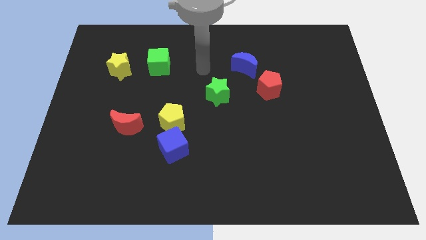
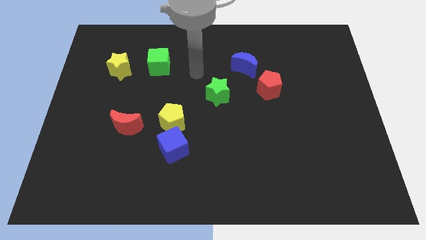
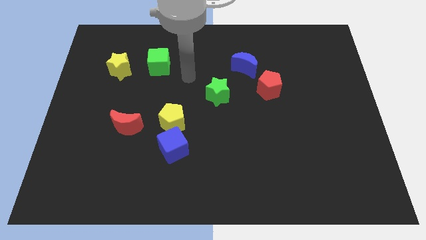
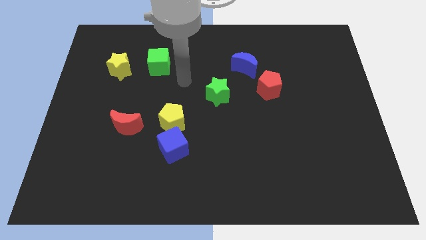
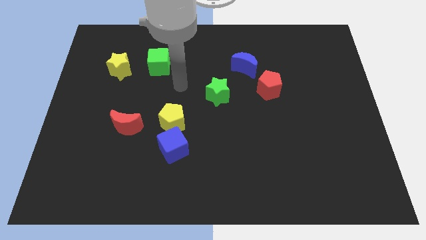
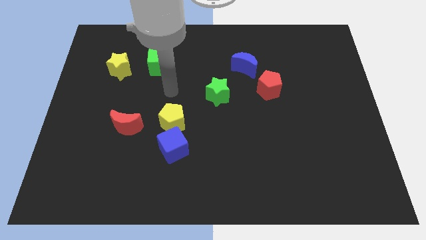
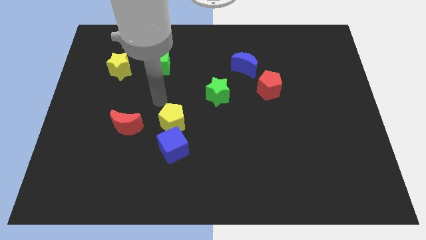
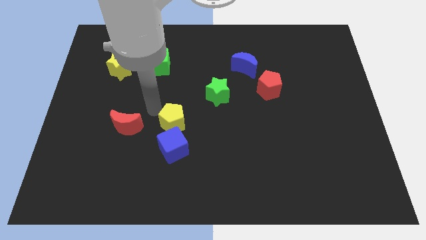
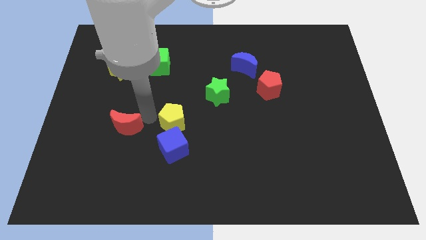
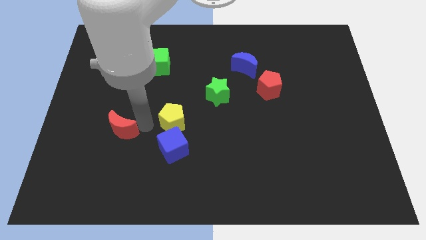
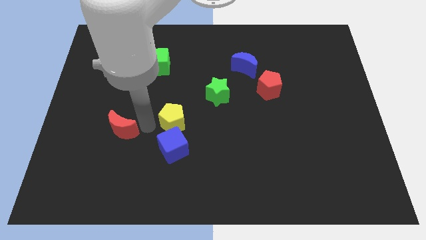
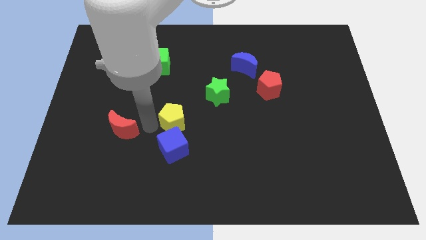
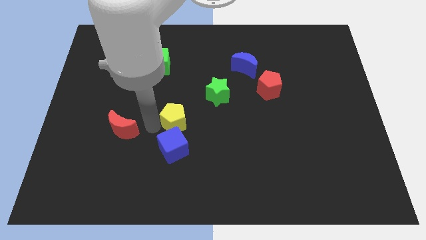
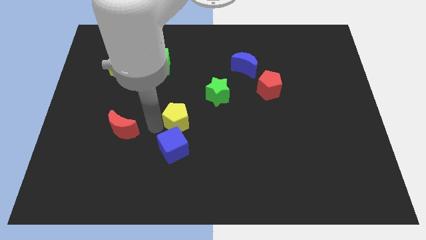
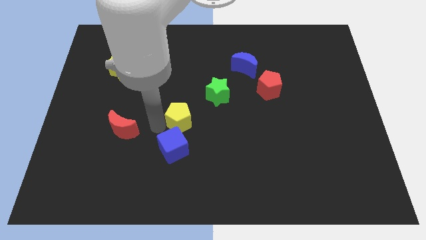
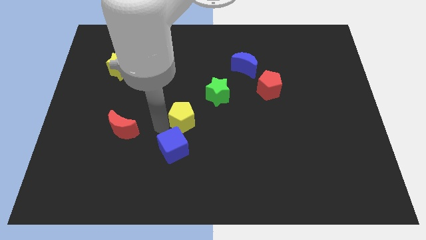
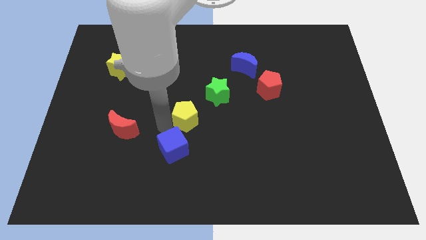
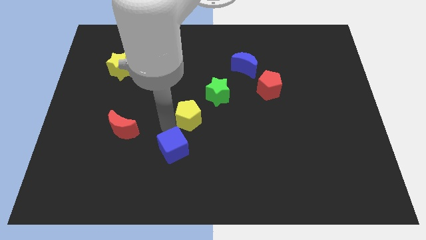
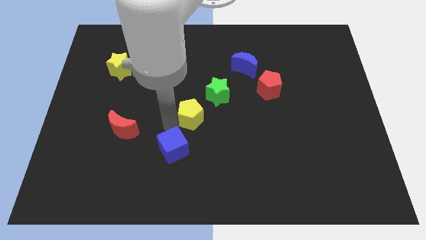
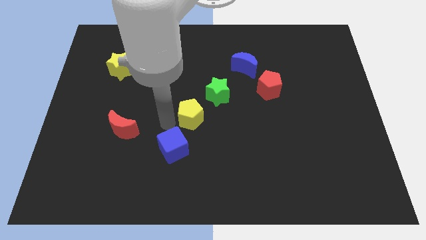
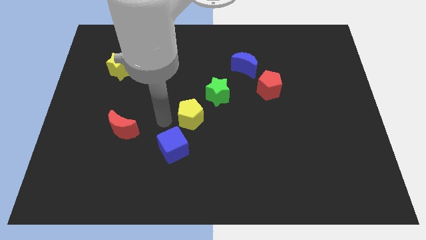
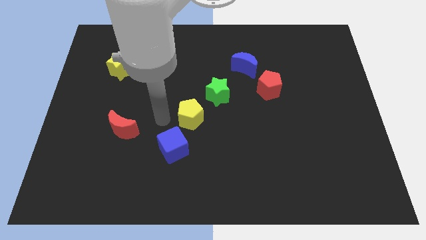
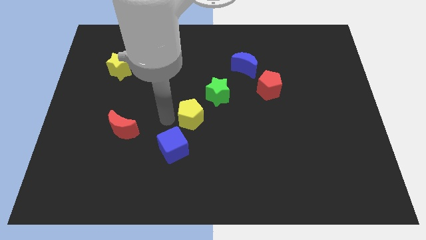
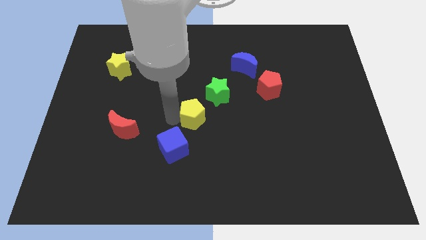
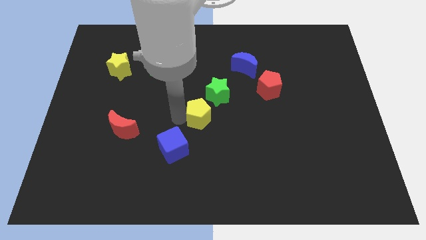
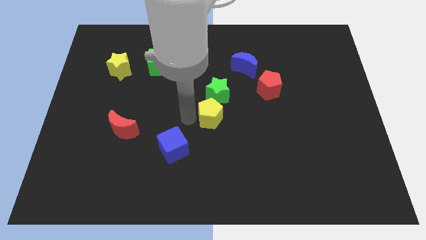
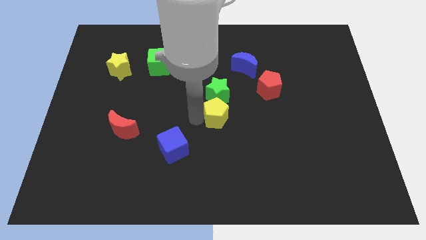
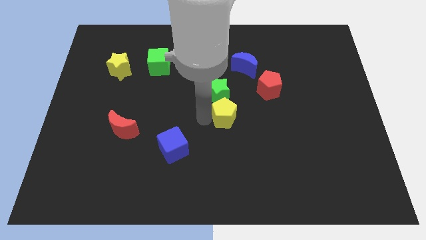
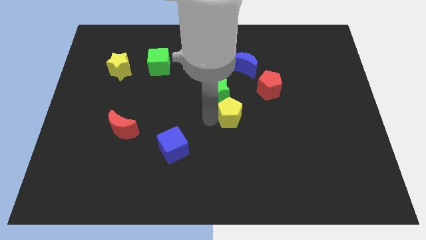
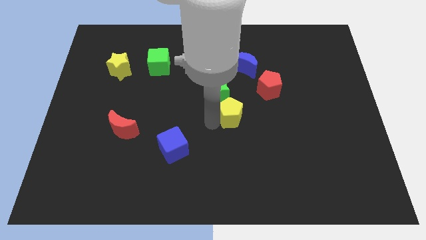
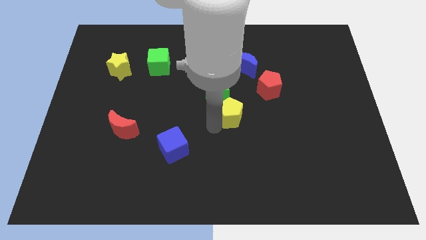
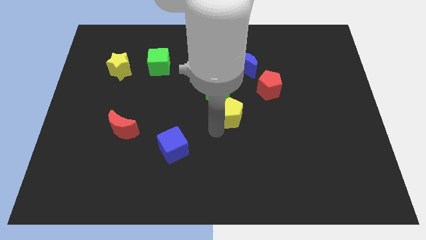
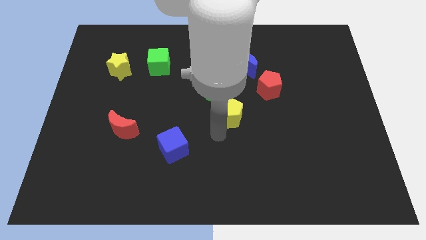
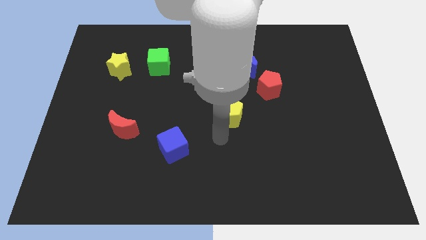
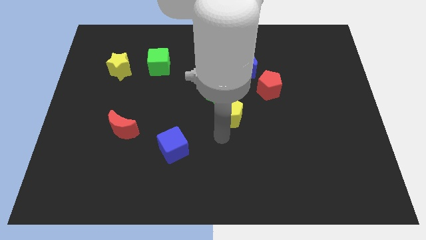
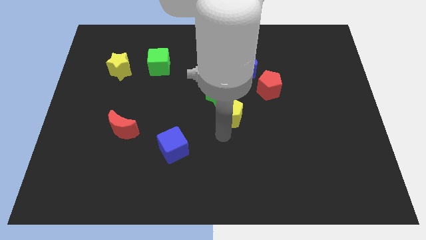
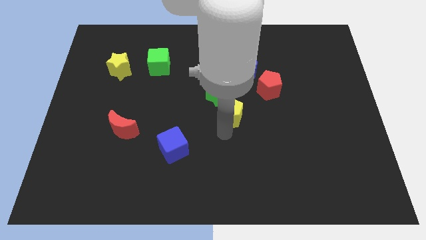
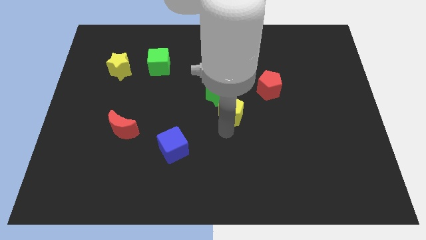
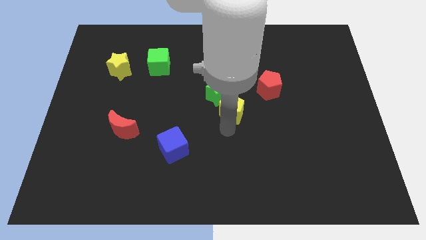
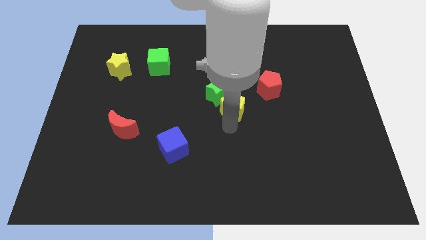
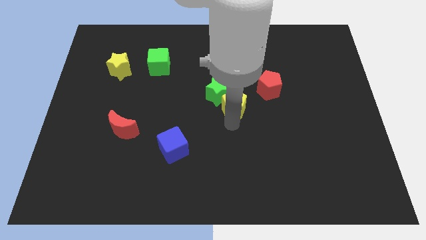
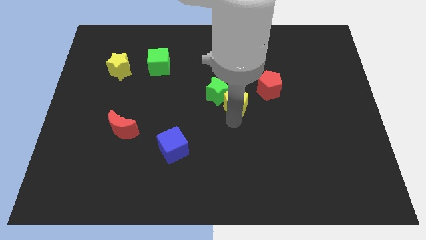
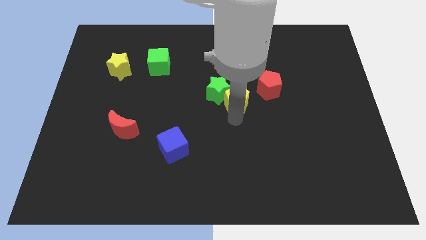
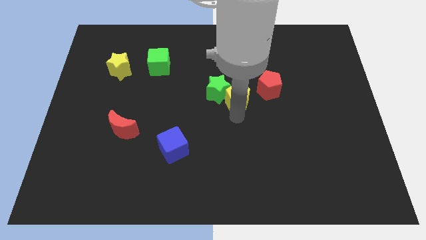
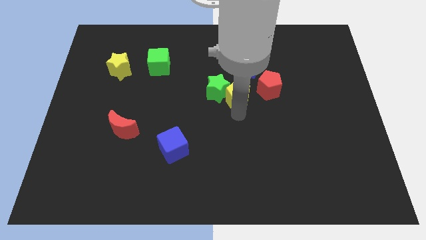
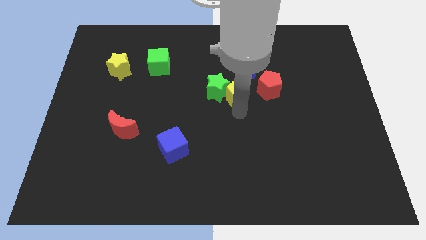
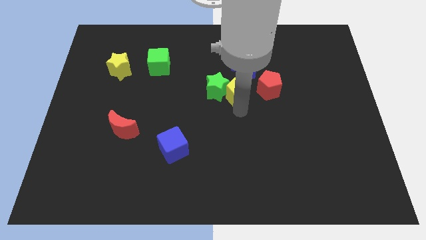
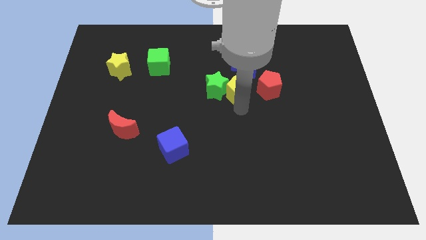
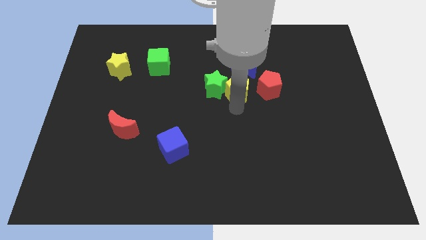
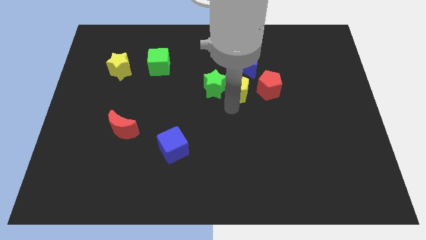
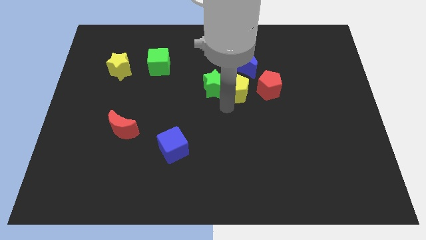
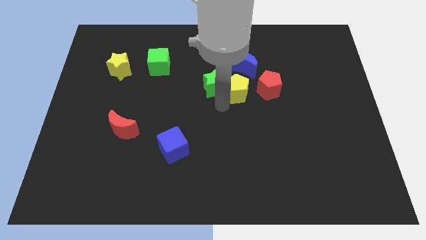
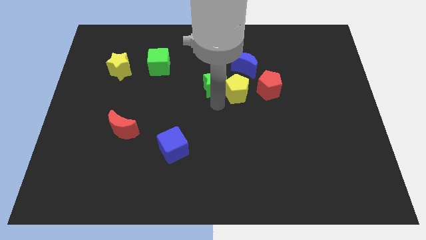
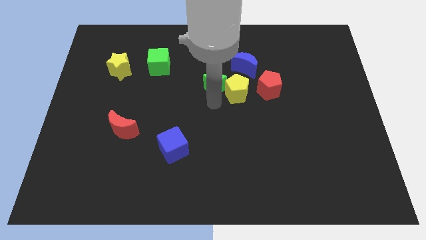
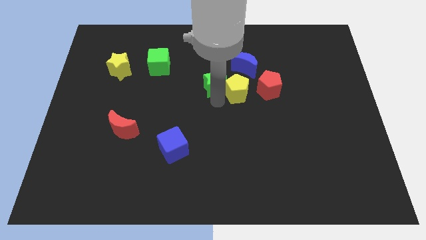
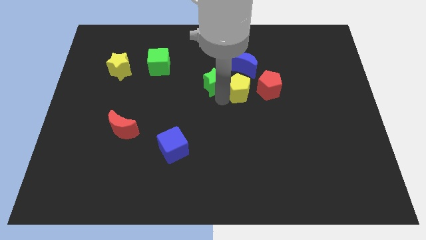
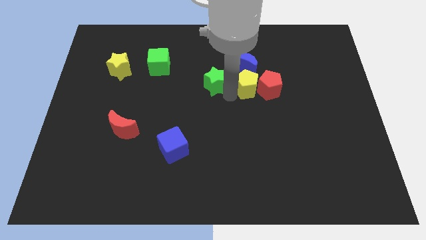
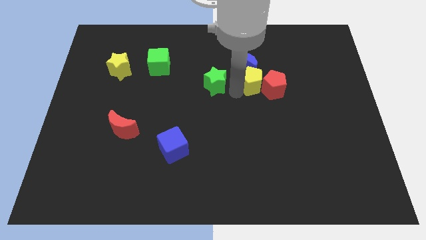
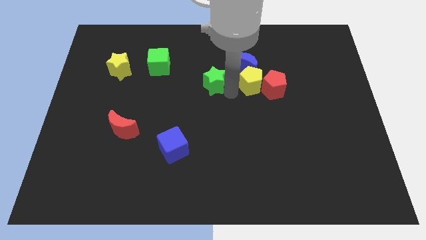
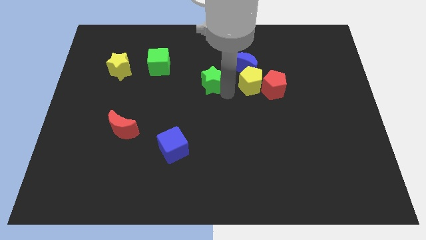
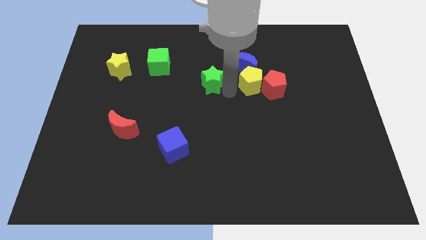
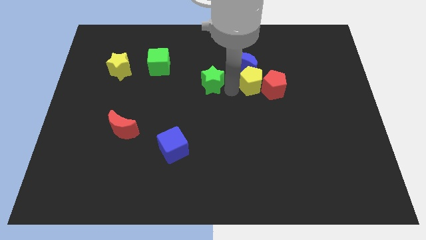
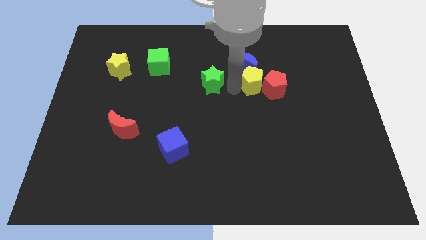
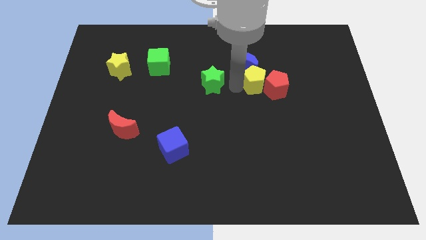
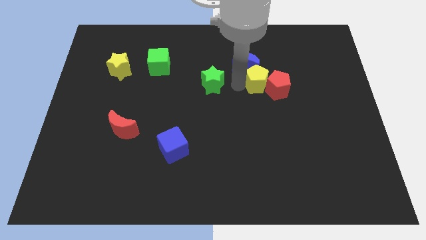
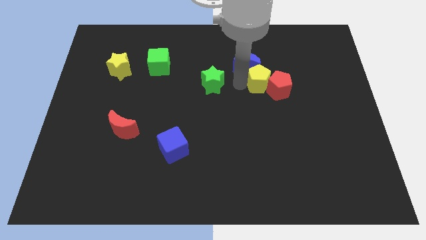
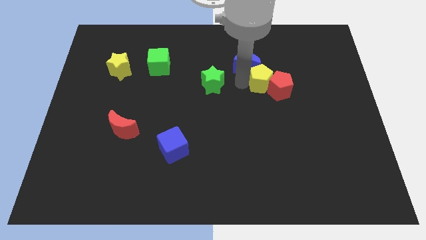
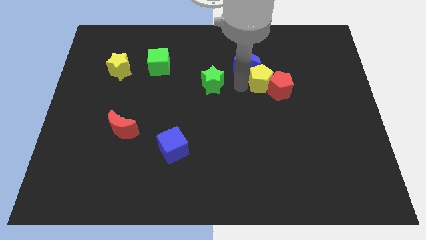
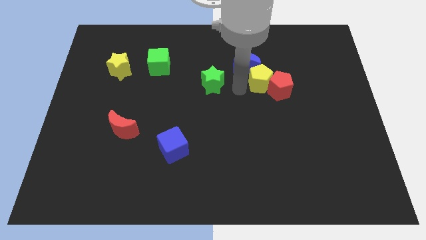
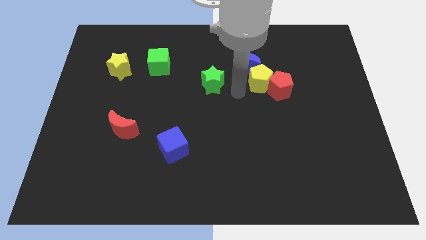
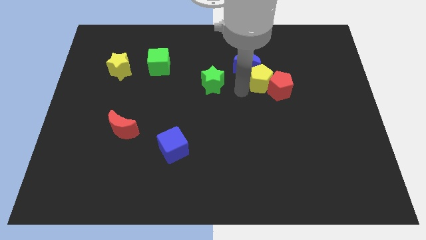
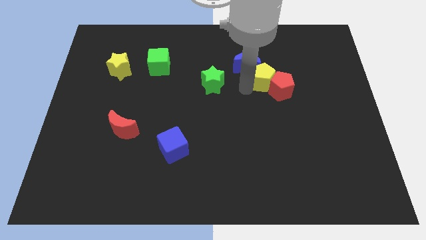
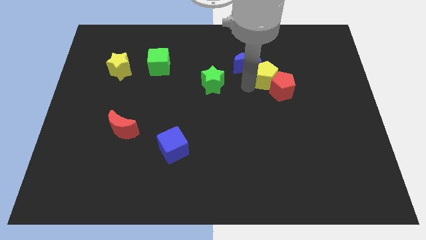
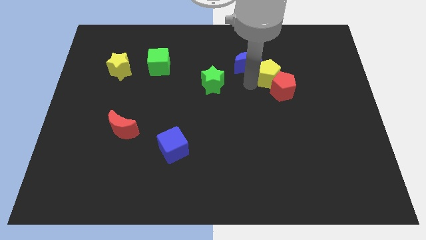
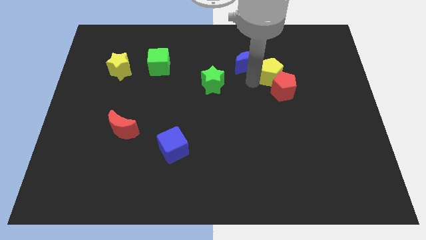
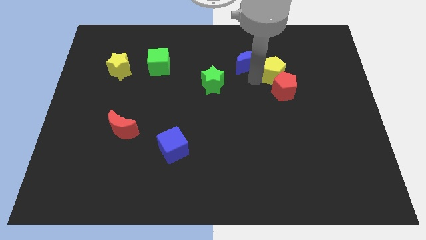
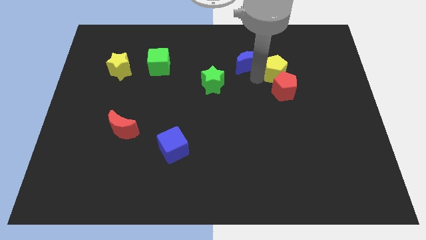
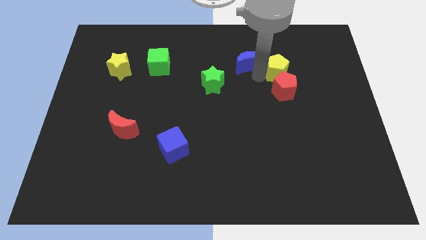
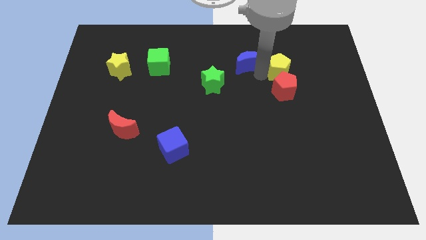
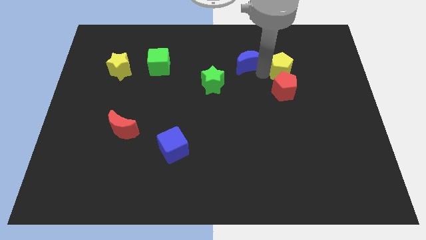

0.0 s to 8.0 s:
push the yellow pentagon to the top right of the red pentagon
